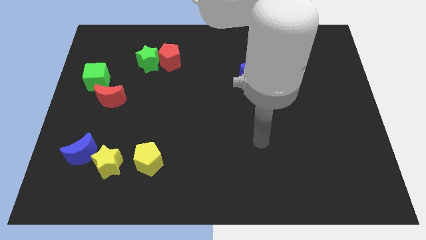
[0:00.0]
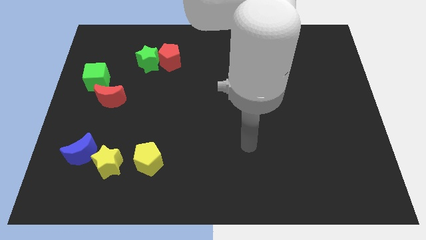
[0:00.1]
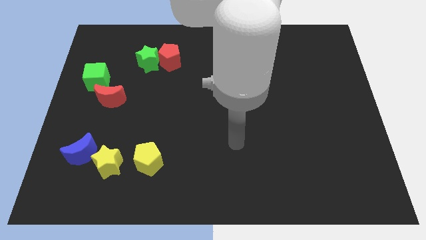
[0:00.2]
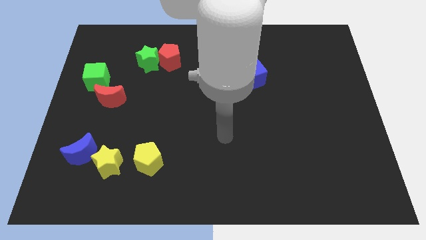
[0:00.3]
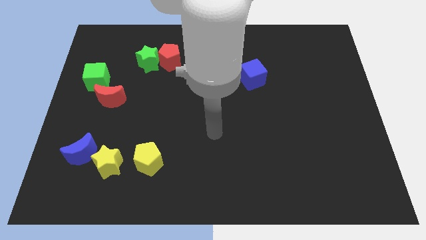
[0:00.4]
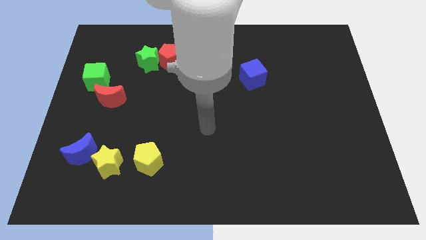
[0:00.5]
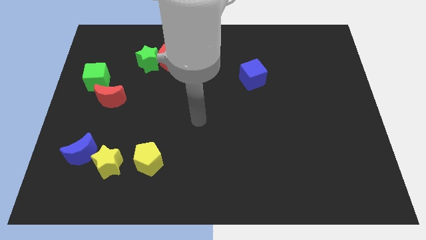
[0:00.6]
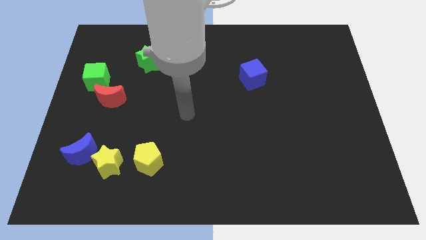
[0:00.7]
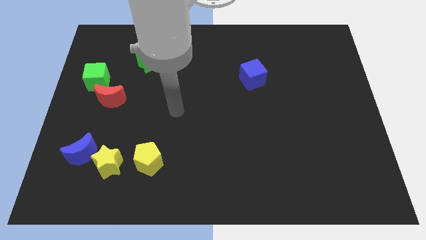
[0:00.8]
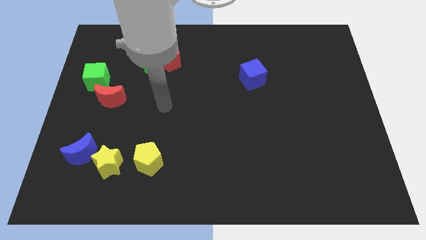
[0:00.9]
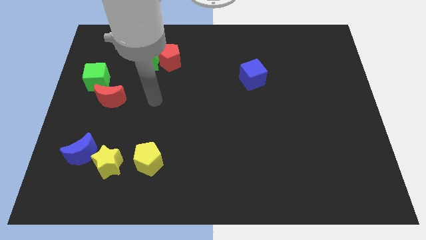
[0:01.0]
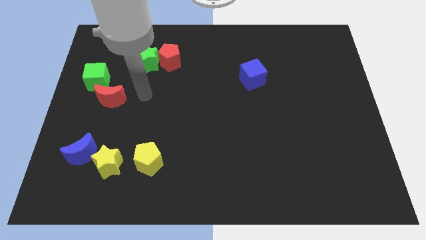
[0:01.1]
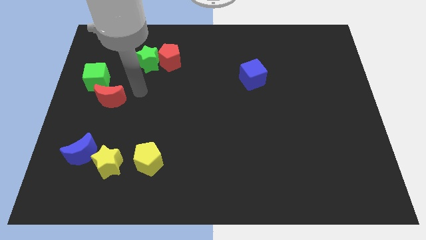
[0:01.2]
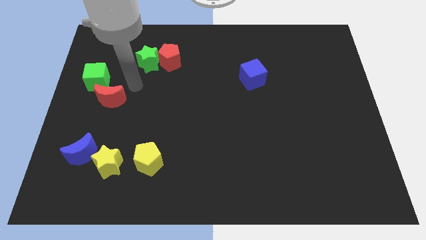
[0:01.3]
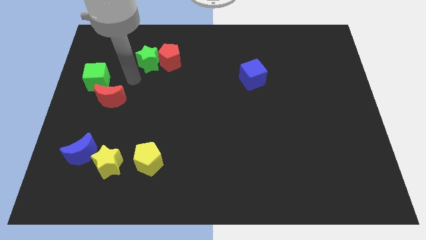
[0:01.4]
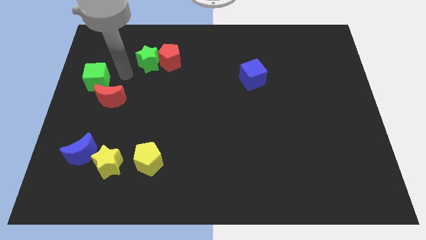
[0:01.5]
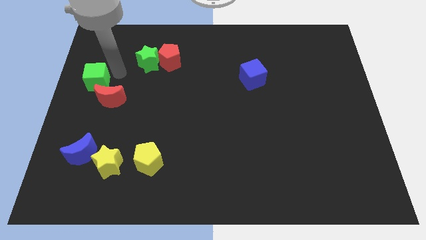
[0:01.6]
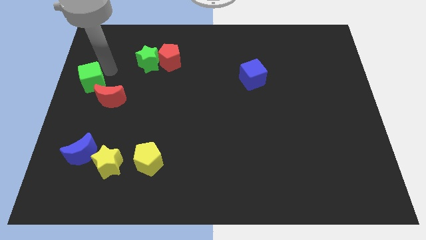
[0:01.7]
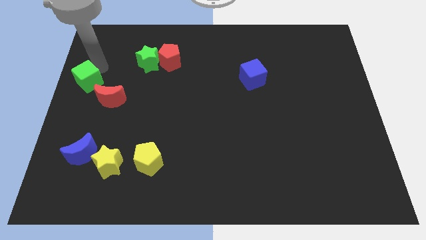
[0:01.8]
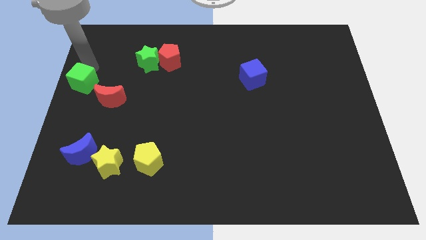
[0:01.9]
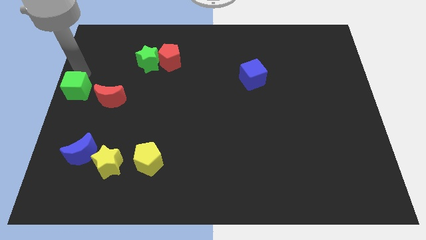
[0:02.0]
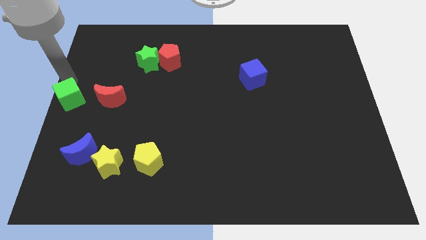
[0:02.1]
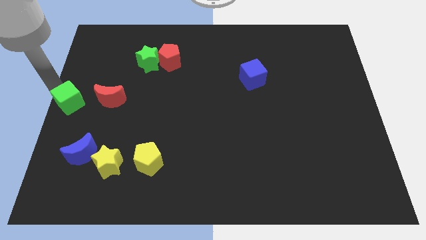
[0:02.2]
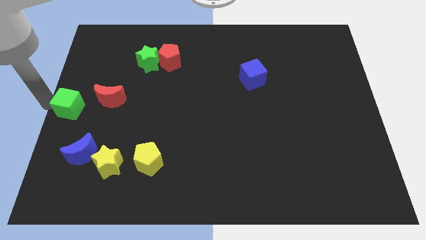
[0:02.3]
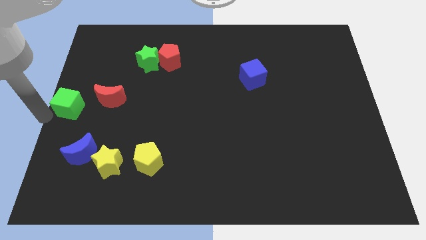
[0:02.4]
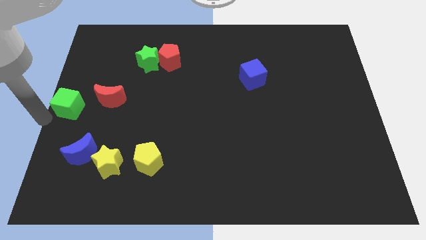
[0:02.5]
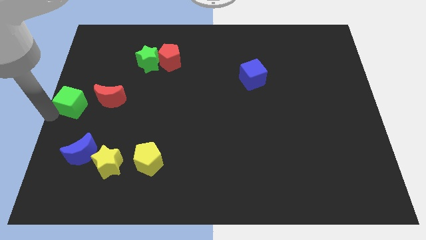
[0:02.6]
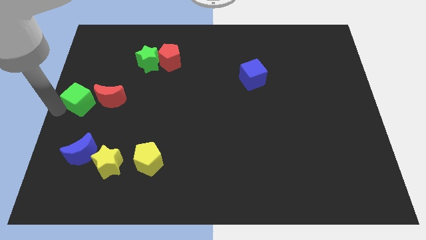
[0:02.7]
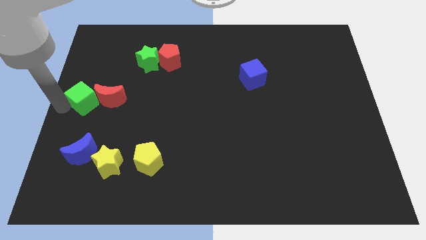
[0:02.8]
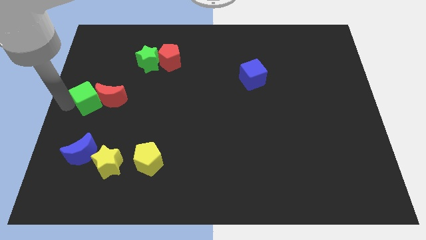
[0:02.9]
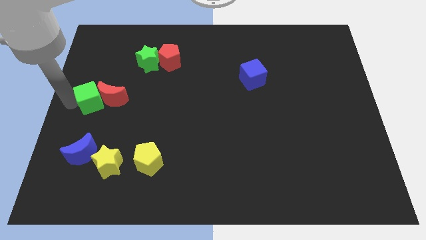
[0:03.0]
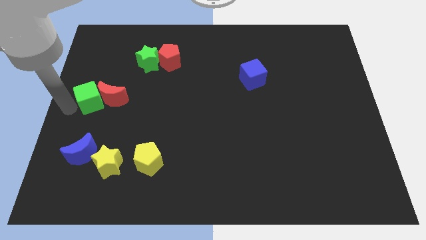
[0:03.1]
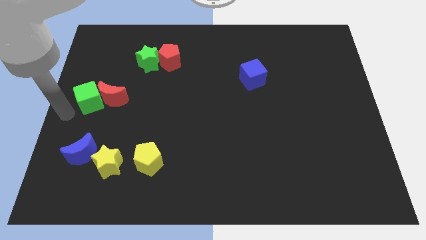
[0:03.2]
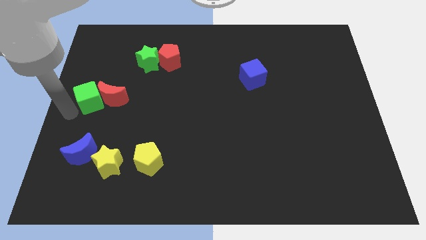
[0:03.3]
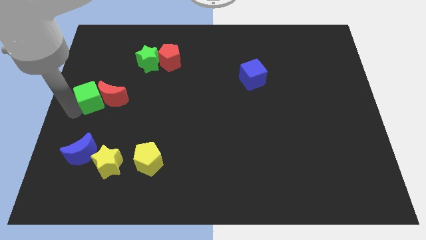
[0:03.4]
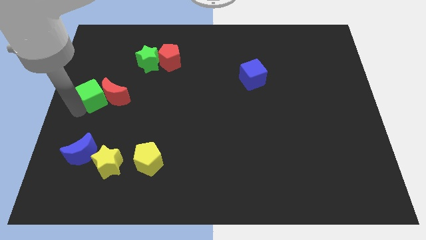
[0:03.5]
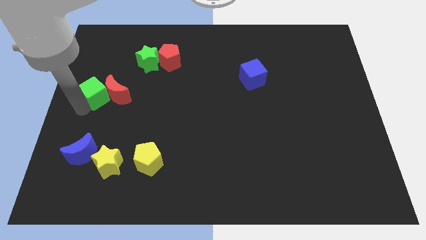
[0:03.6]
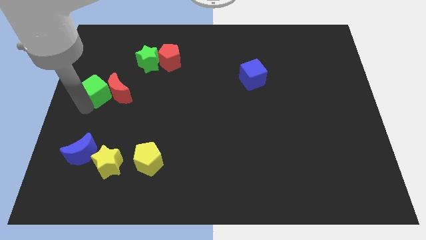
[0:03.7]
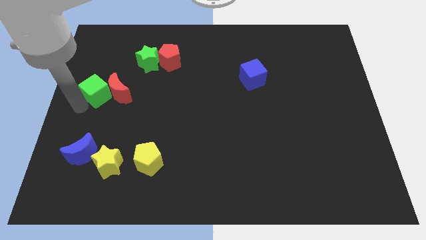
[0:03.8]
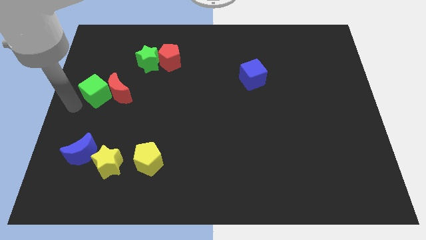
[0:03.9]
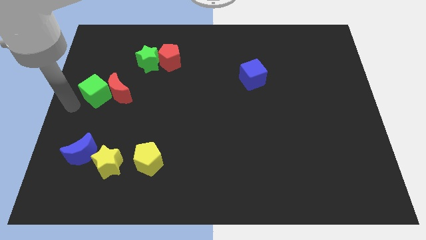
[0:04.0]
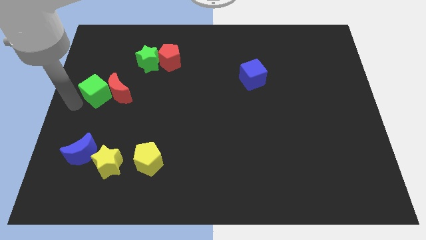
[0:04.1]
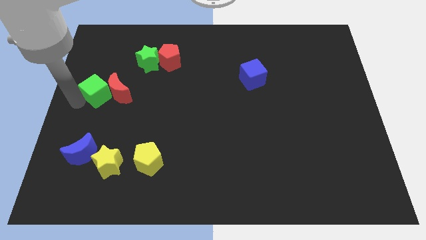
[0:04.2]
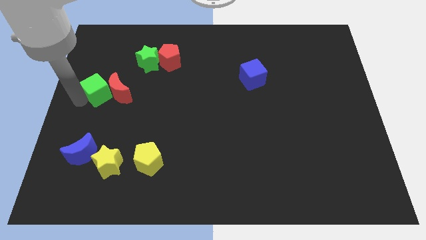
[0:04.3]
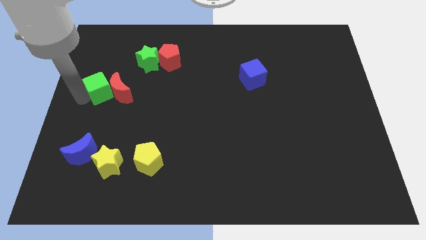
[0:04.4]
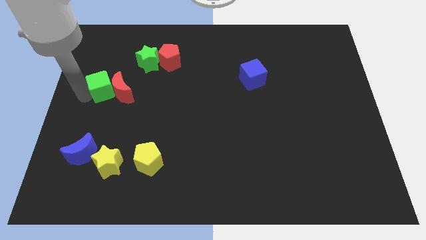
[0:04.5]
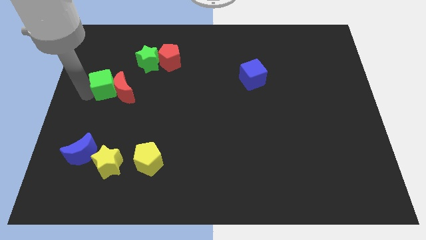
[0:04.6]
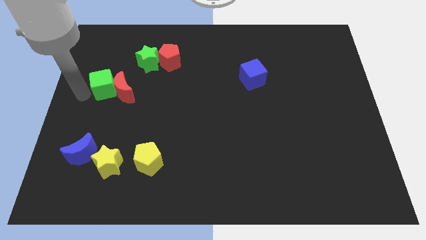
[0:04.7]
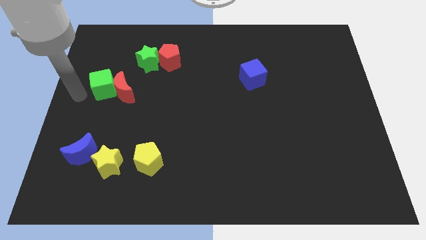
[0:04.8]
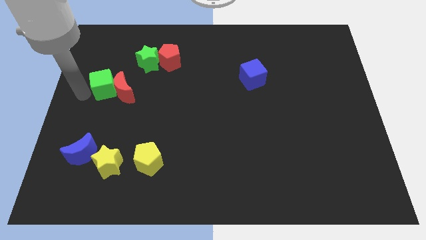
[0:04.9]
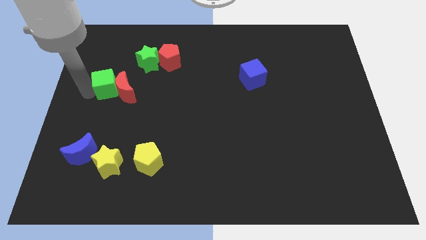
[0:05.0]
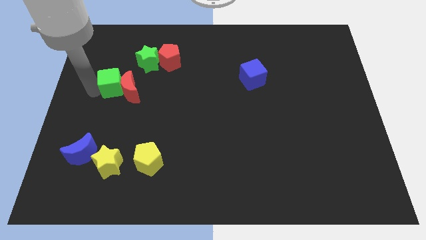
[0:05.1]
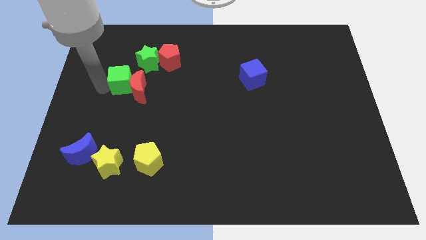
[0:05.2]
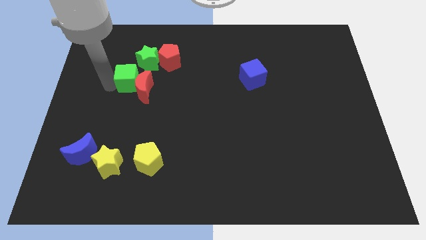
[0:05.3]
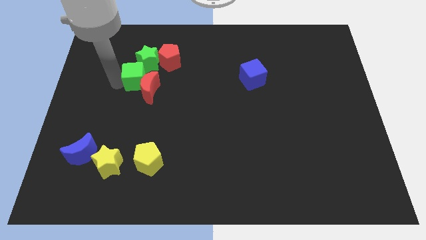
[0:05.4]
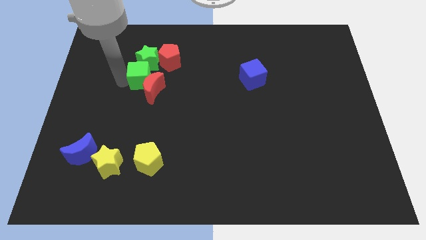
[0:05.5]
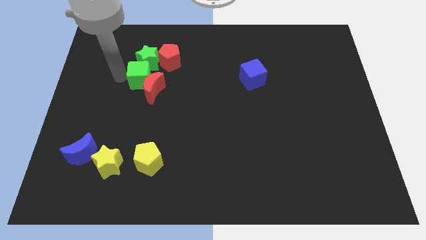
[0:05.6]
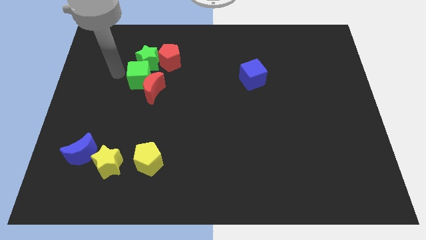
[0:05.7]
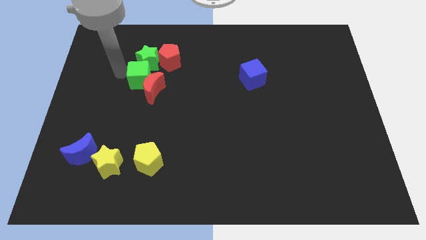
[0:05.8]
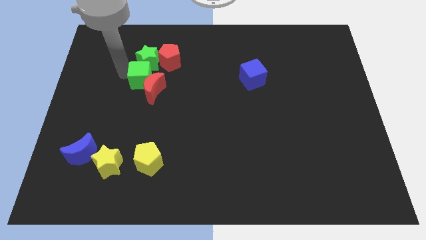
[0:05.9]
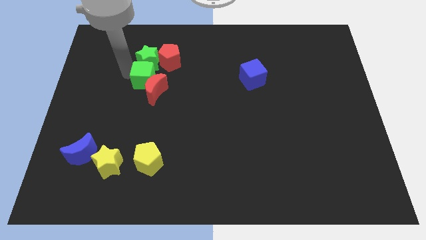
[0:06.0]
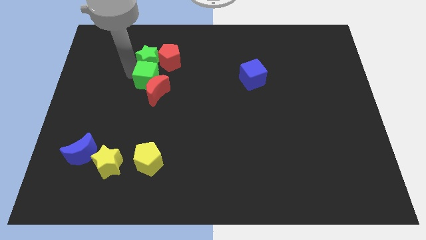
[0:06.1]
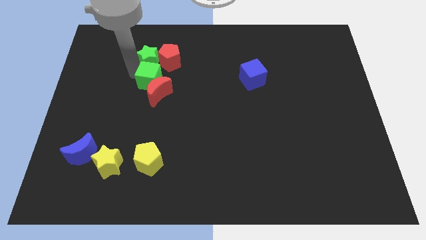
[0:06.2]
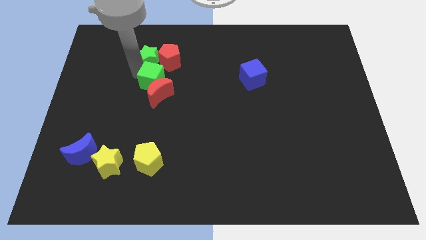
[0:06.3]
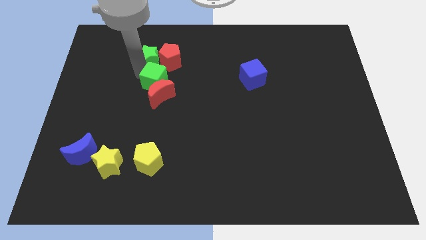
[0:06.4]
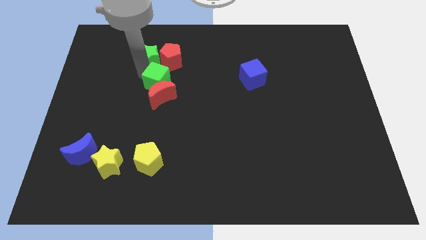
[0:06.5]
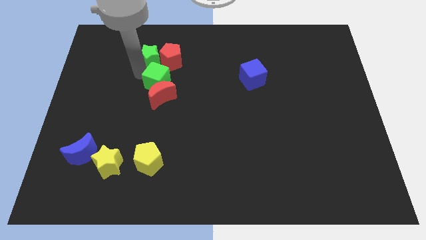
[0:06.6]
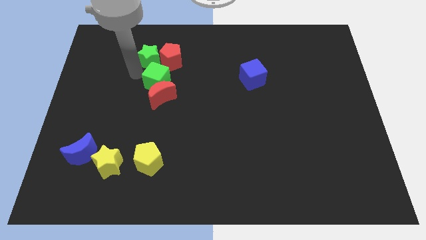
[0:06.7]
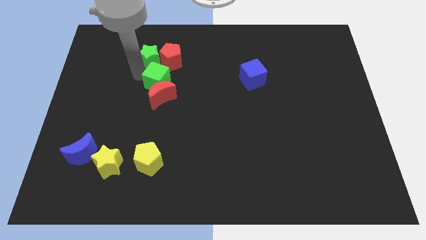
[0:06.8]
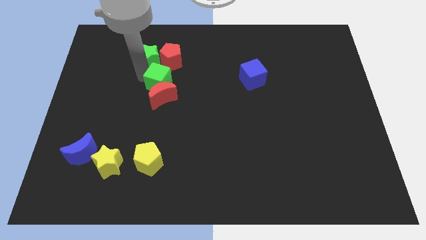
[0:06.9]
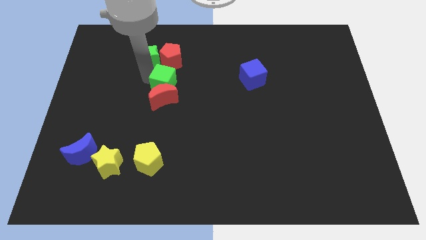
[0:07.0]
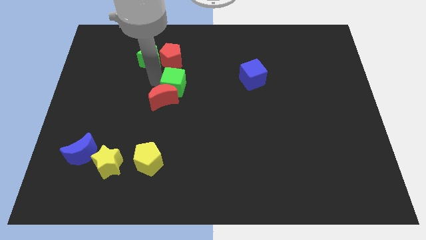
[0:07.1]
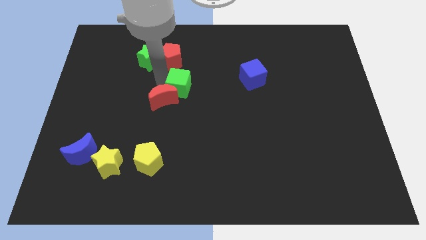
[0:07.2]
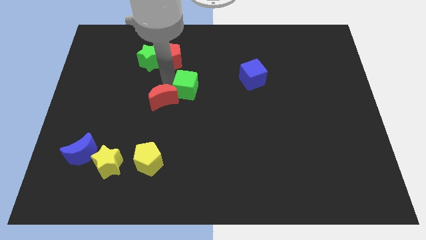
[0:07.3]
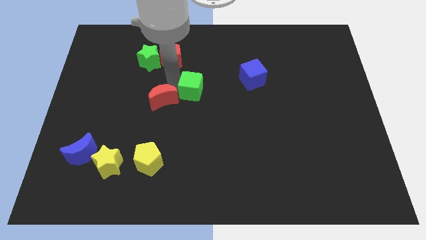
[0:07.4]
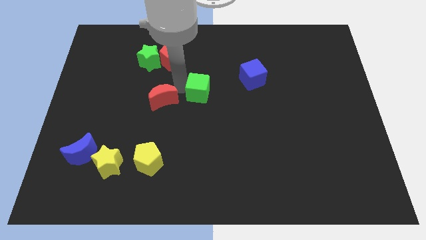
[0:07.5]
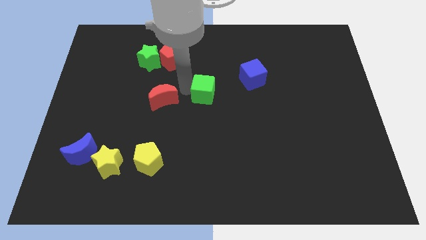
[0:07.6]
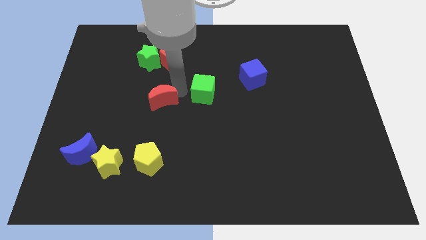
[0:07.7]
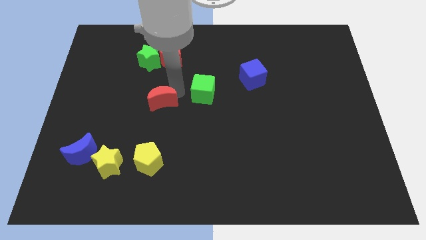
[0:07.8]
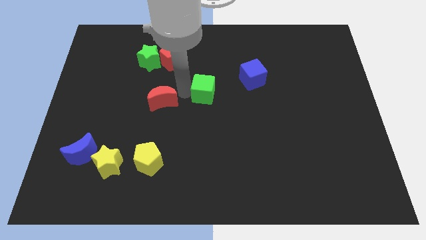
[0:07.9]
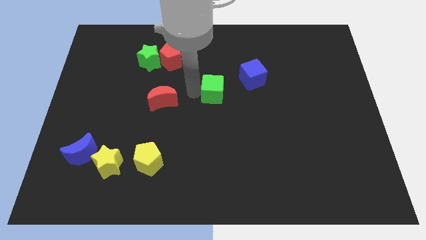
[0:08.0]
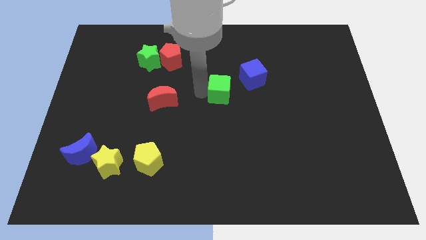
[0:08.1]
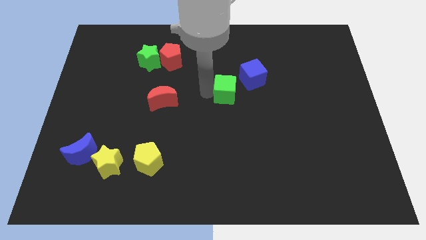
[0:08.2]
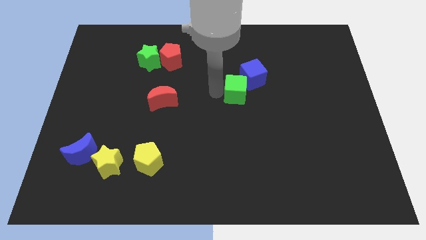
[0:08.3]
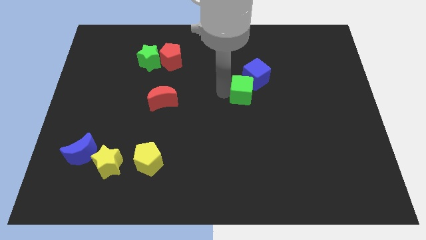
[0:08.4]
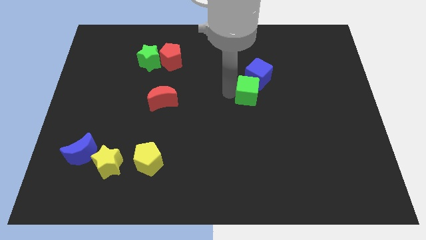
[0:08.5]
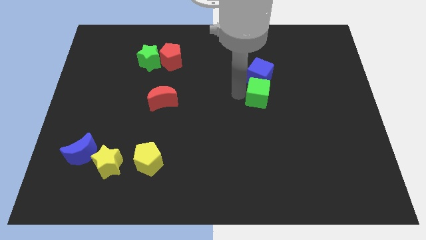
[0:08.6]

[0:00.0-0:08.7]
put the green cube diagonally down and to the right of the blue cube
